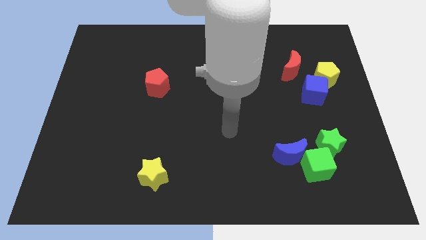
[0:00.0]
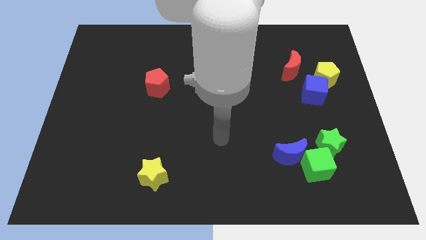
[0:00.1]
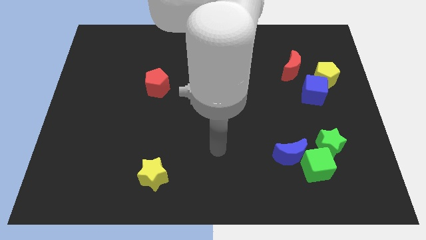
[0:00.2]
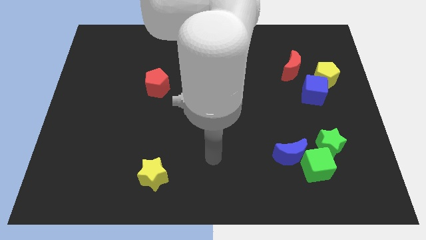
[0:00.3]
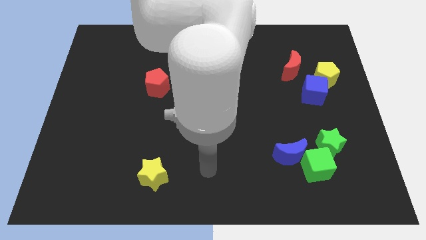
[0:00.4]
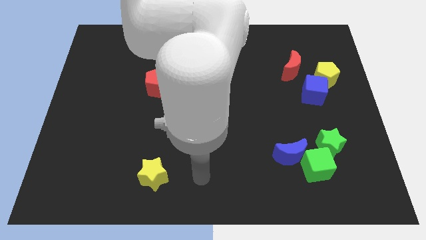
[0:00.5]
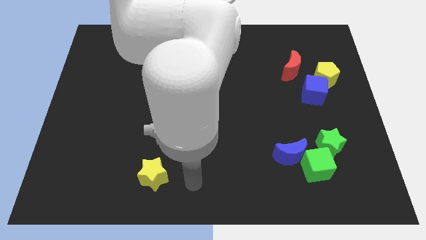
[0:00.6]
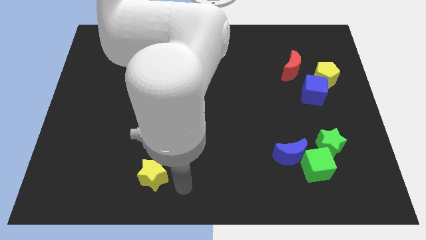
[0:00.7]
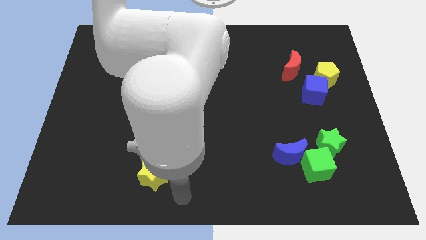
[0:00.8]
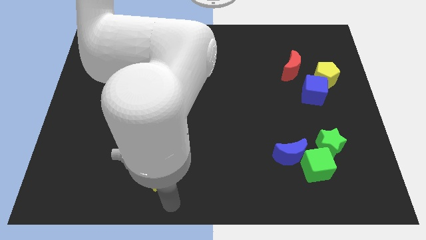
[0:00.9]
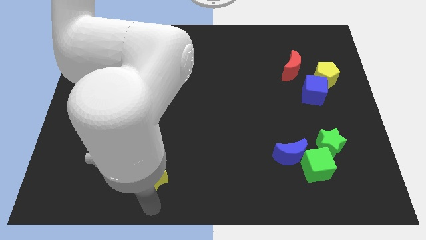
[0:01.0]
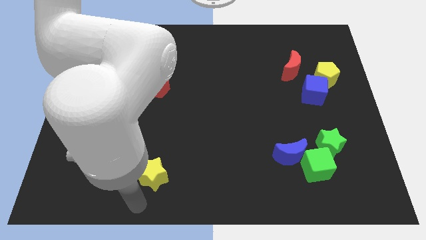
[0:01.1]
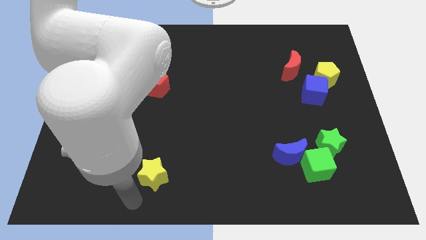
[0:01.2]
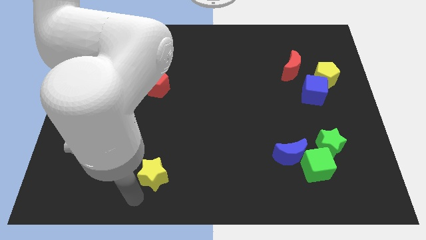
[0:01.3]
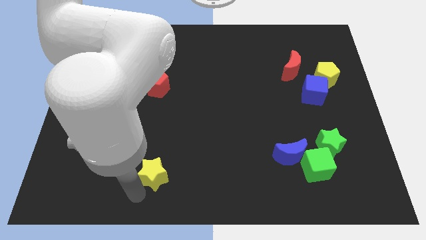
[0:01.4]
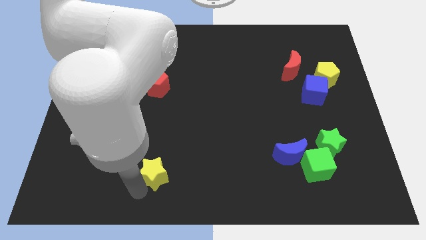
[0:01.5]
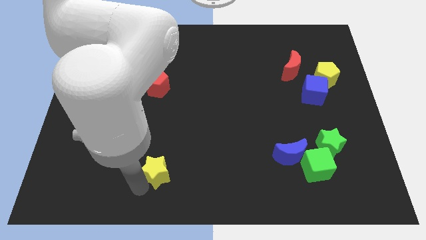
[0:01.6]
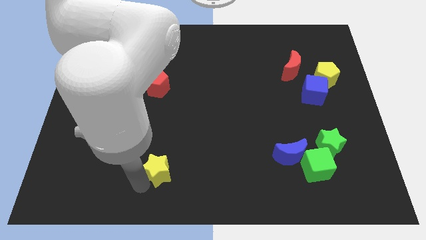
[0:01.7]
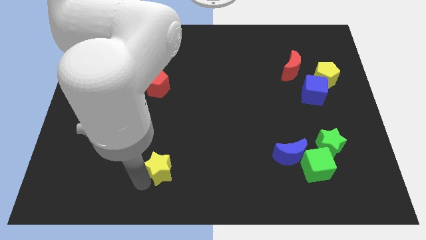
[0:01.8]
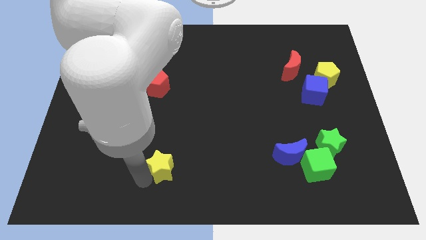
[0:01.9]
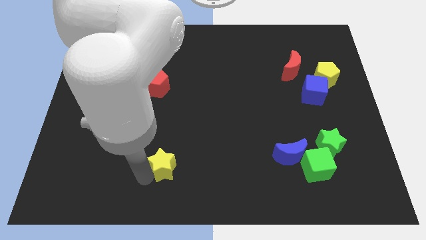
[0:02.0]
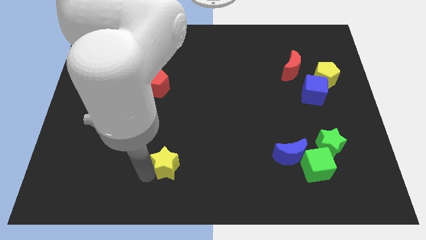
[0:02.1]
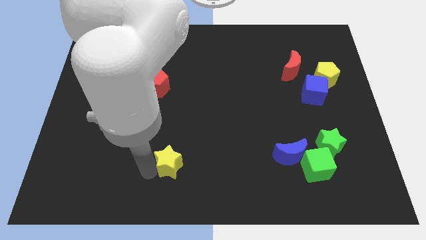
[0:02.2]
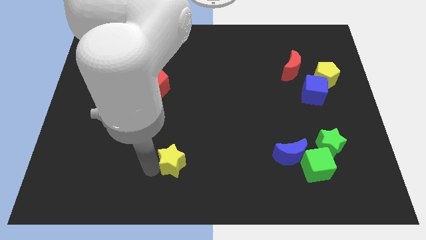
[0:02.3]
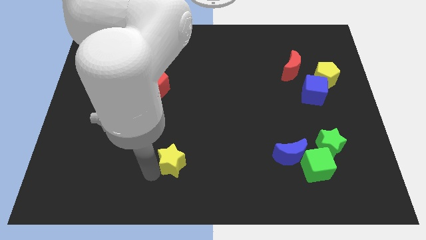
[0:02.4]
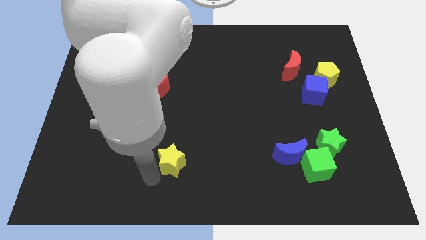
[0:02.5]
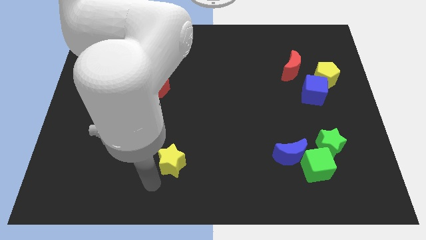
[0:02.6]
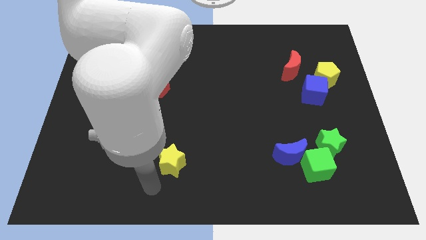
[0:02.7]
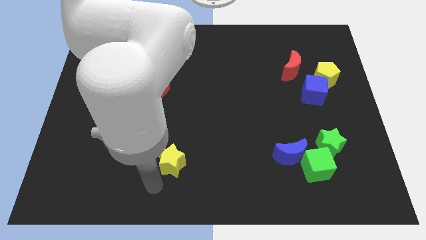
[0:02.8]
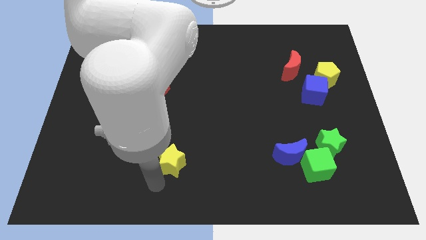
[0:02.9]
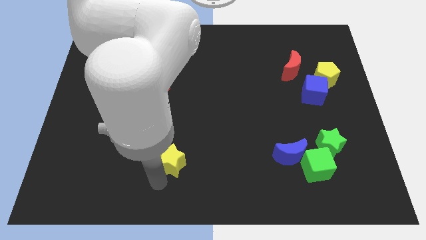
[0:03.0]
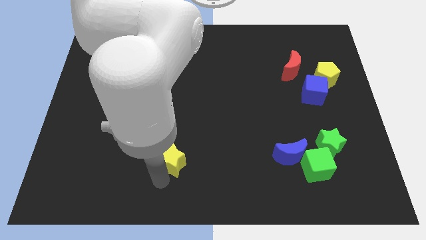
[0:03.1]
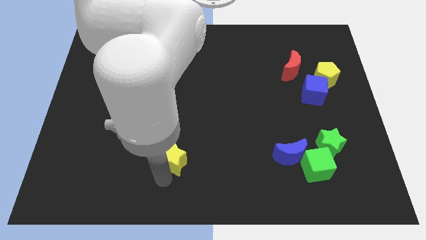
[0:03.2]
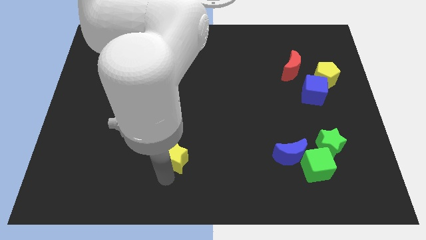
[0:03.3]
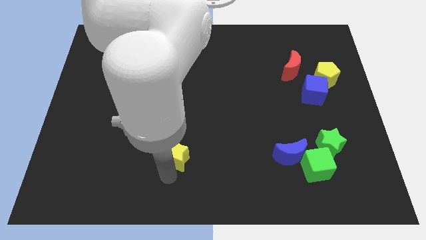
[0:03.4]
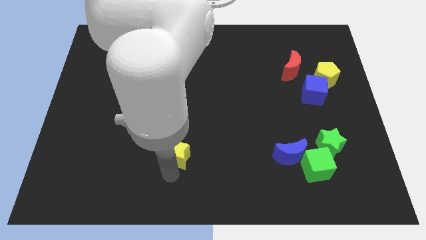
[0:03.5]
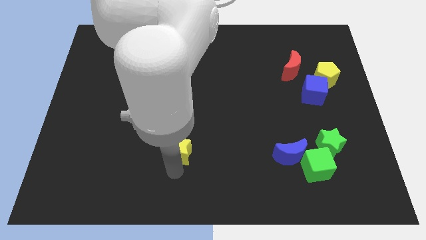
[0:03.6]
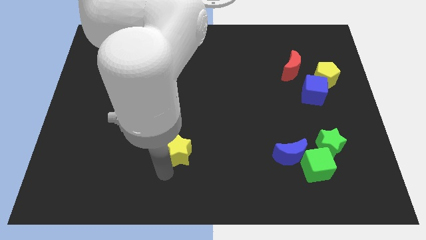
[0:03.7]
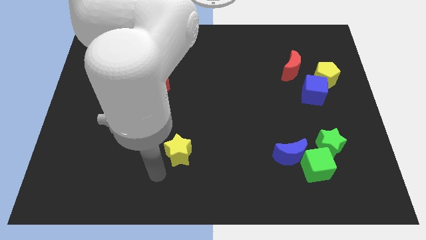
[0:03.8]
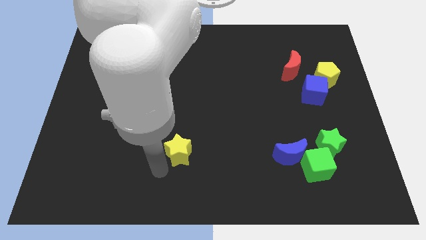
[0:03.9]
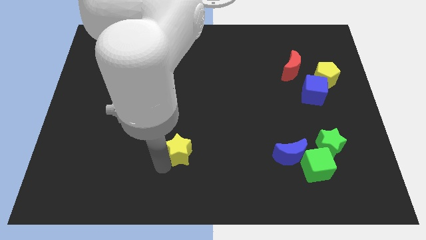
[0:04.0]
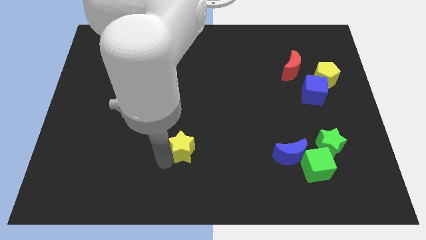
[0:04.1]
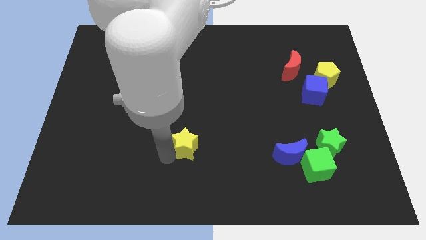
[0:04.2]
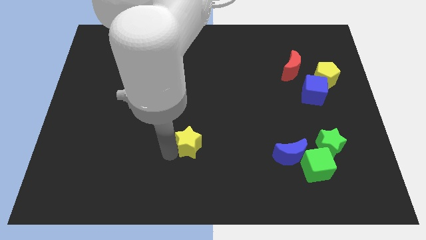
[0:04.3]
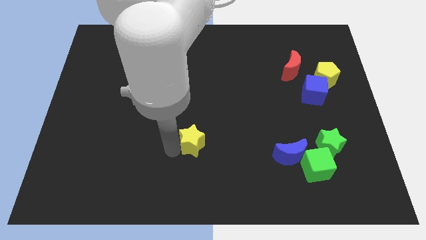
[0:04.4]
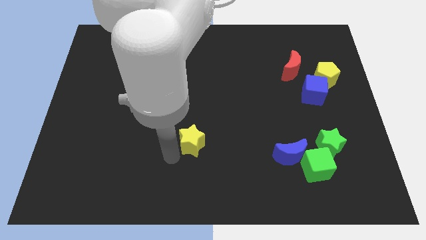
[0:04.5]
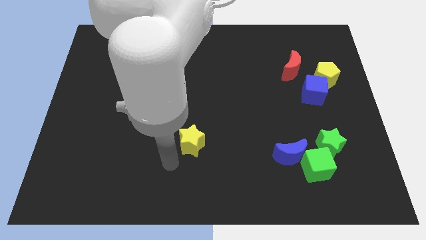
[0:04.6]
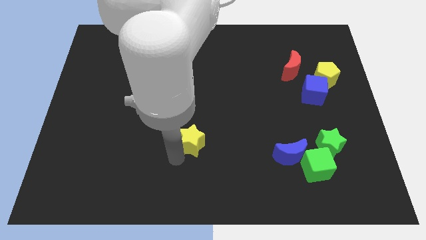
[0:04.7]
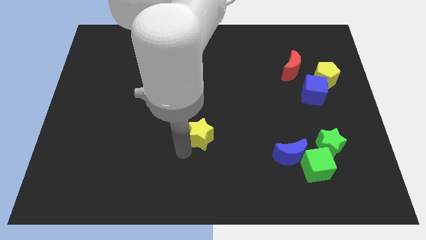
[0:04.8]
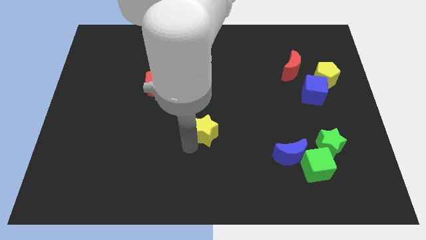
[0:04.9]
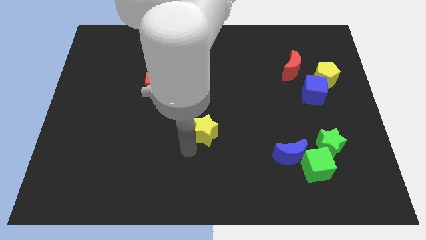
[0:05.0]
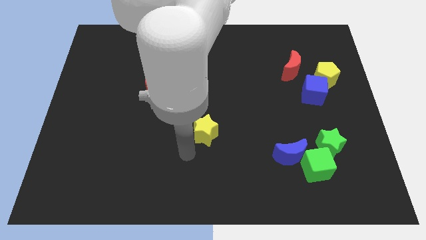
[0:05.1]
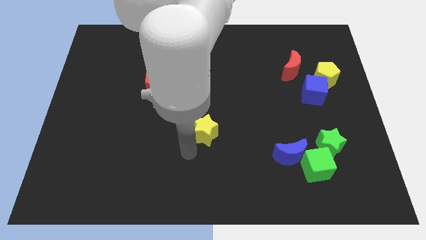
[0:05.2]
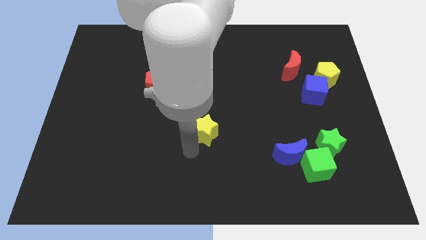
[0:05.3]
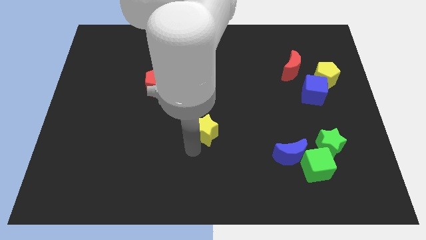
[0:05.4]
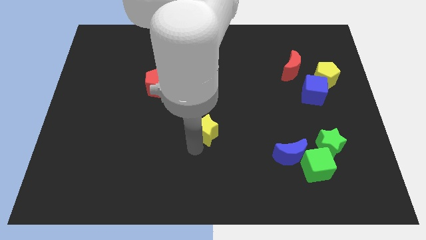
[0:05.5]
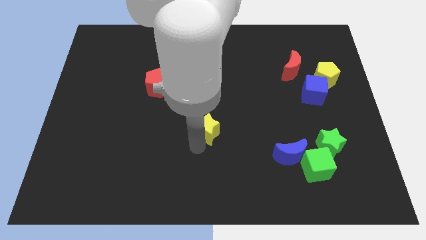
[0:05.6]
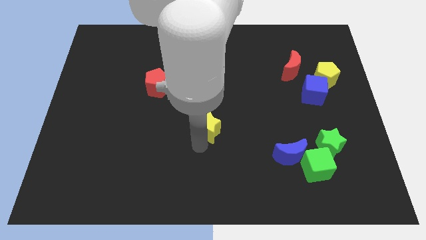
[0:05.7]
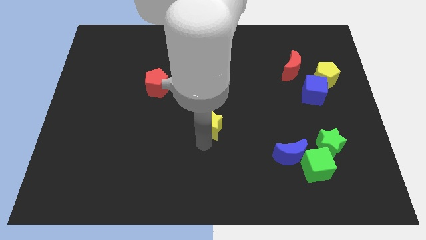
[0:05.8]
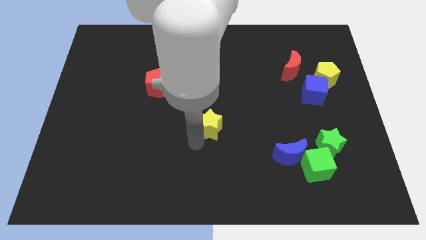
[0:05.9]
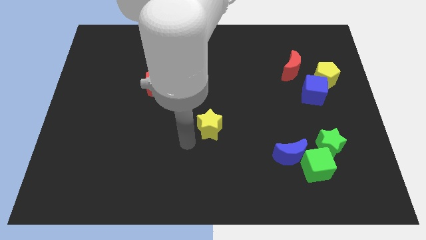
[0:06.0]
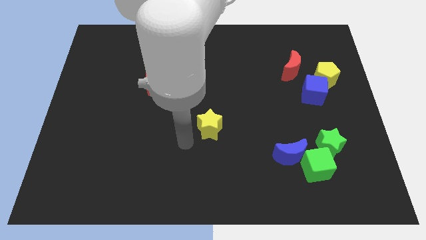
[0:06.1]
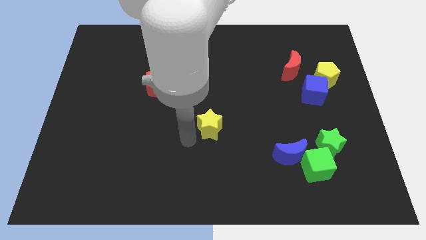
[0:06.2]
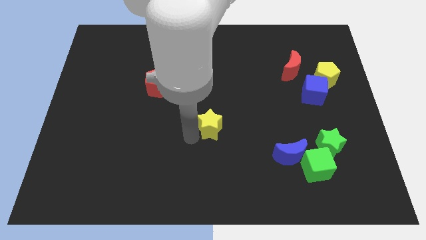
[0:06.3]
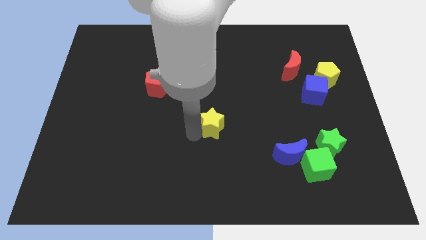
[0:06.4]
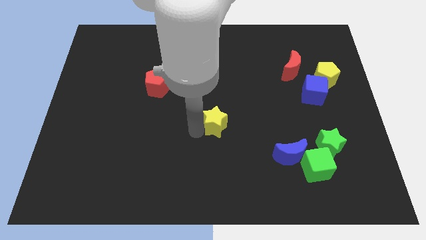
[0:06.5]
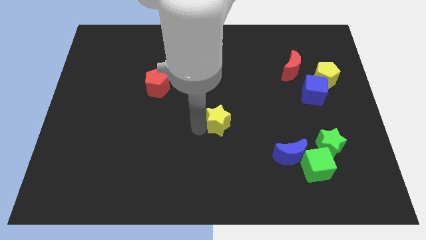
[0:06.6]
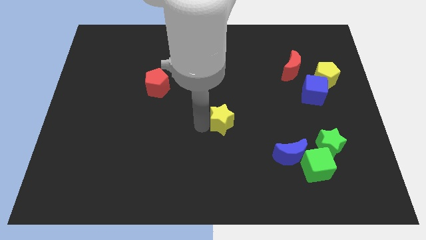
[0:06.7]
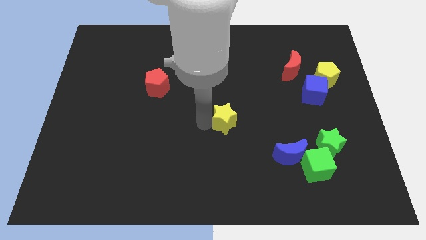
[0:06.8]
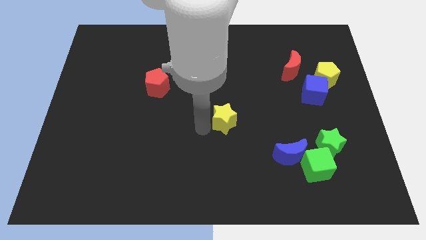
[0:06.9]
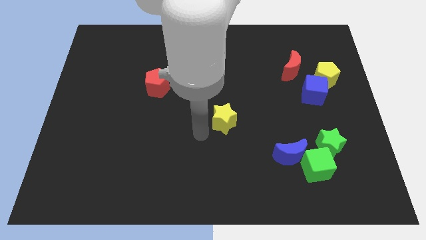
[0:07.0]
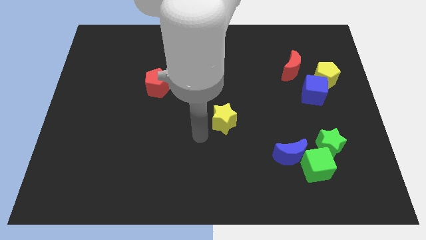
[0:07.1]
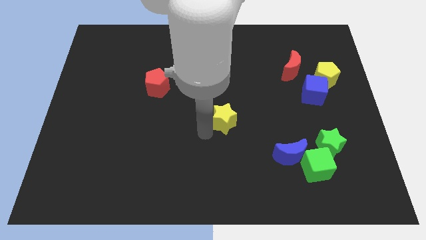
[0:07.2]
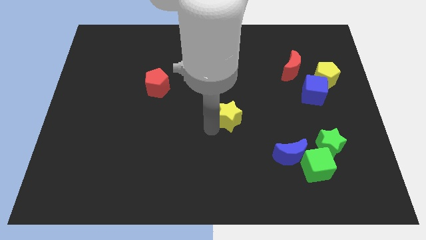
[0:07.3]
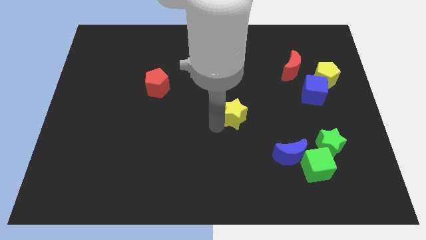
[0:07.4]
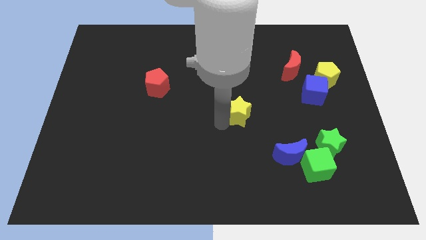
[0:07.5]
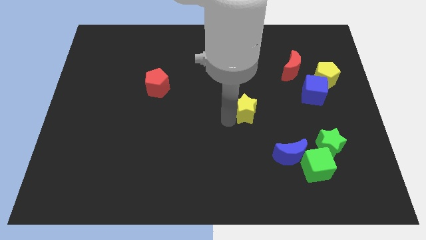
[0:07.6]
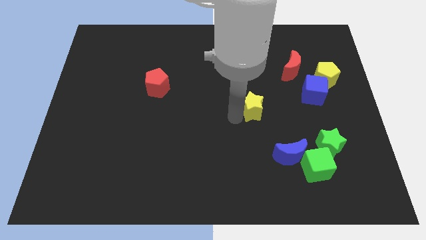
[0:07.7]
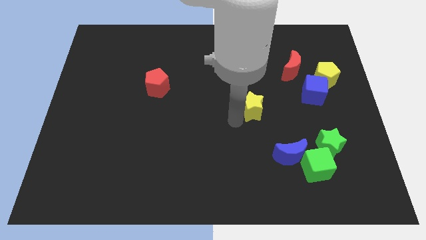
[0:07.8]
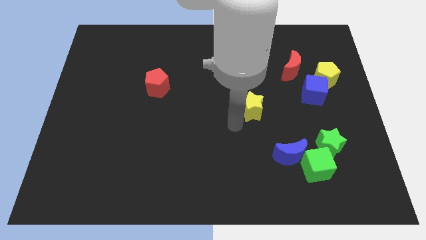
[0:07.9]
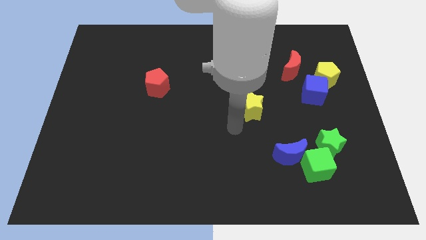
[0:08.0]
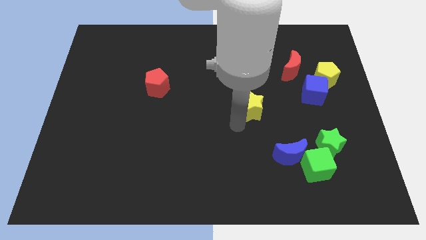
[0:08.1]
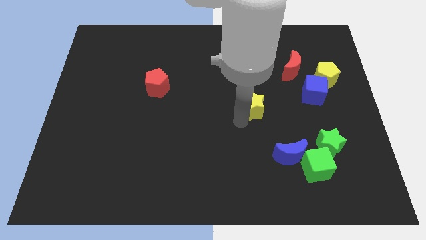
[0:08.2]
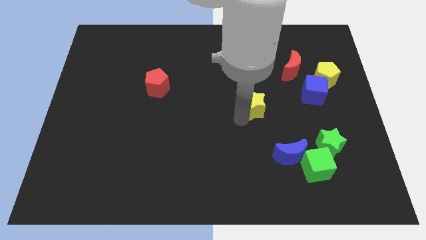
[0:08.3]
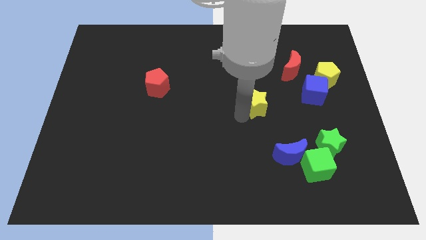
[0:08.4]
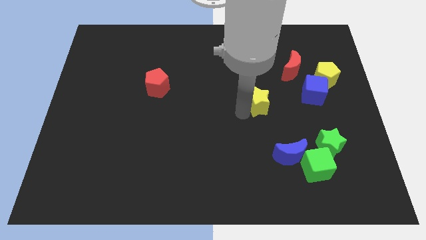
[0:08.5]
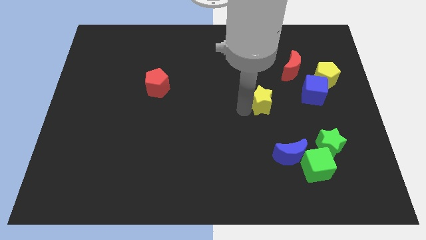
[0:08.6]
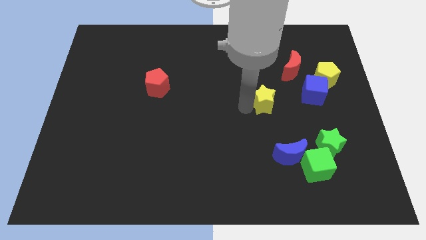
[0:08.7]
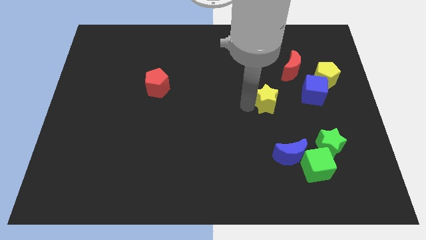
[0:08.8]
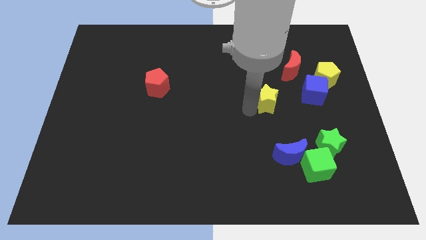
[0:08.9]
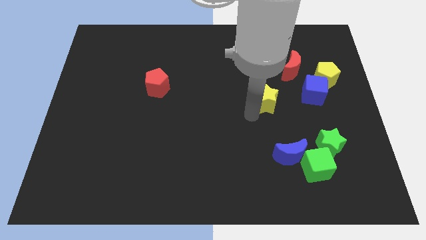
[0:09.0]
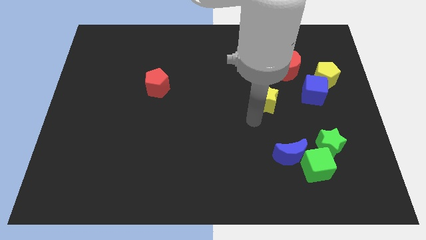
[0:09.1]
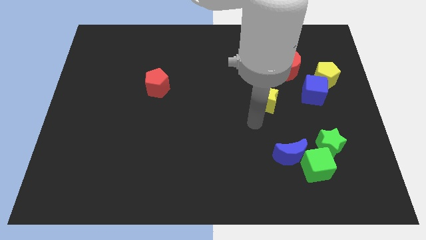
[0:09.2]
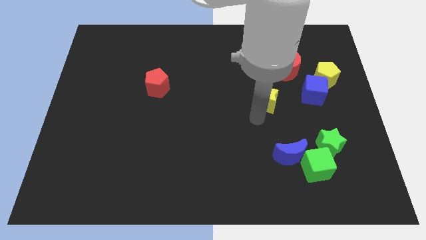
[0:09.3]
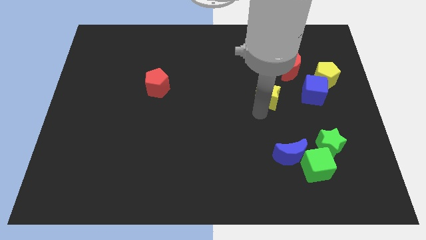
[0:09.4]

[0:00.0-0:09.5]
move the yellow star to the bottom left side of the red moon
